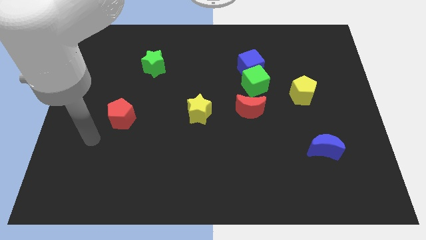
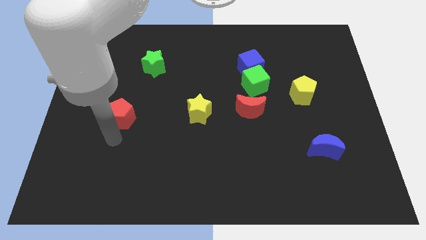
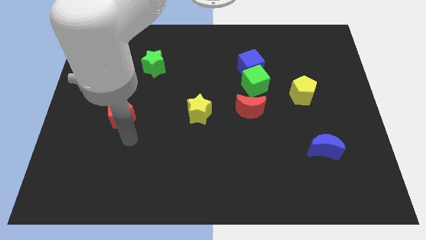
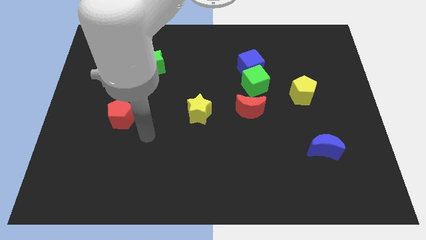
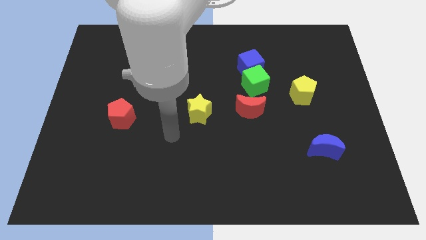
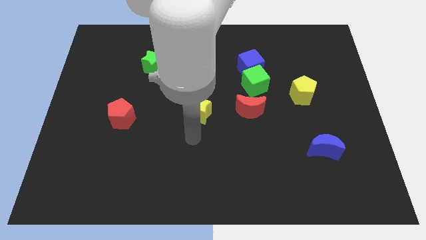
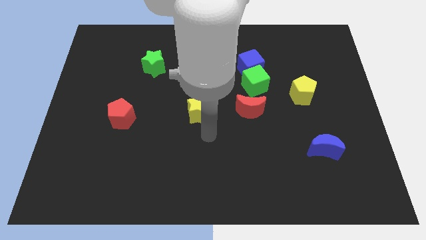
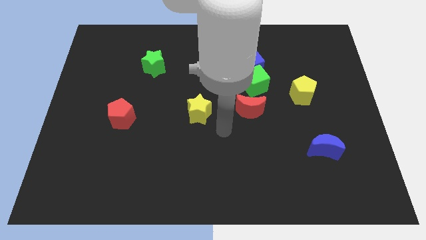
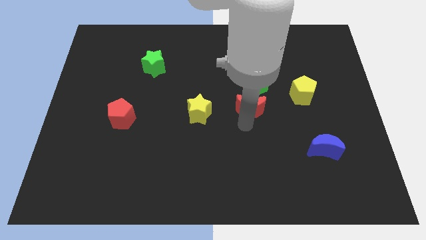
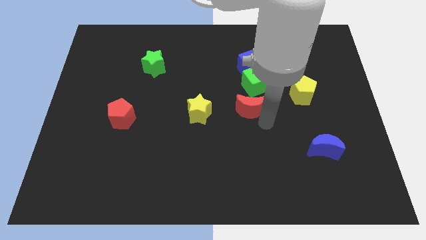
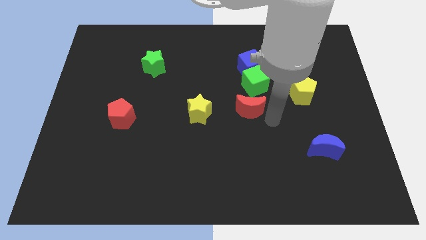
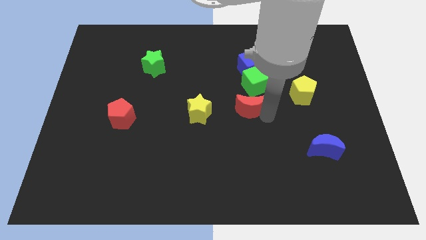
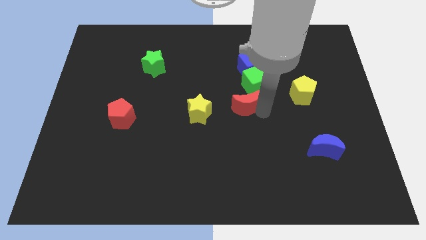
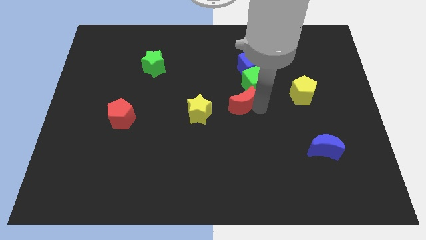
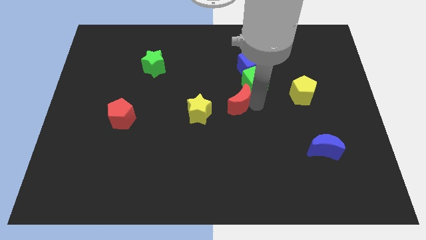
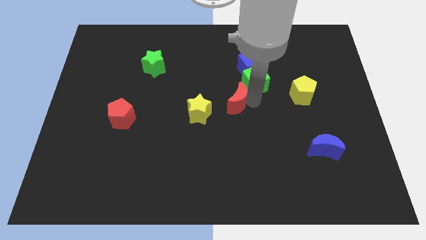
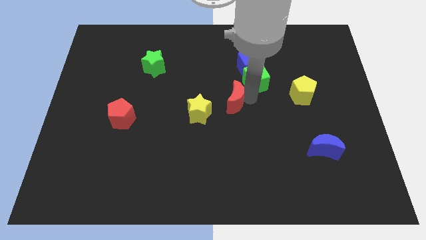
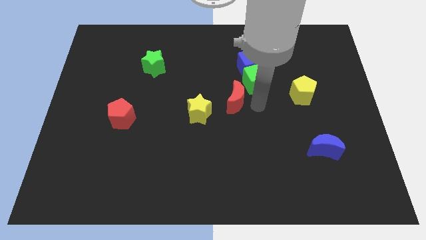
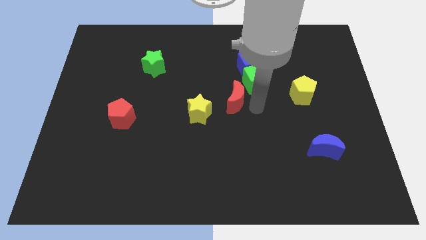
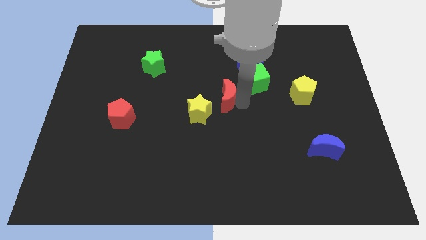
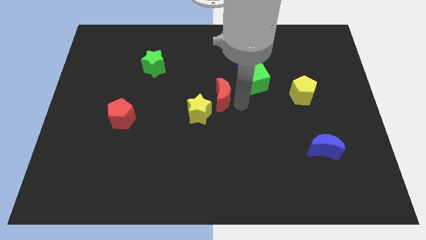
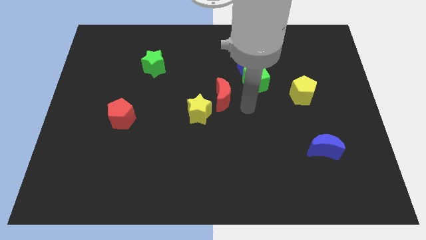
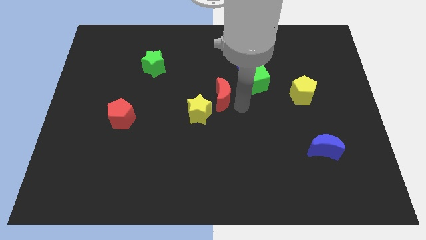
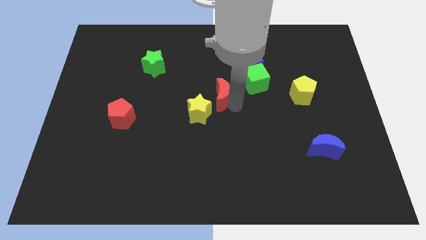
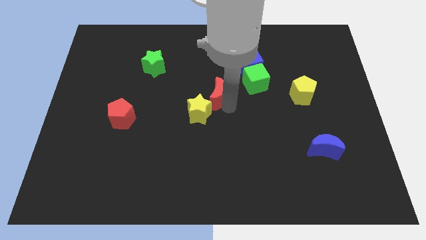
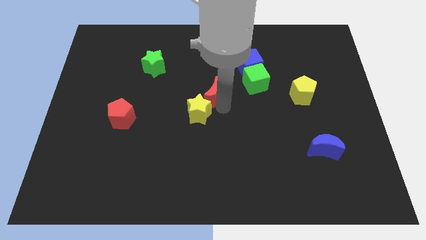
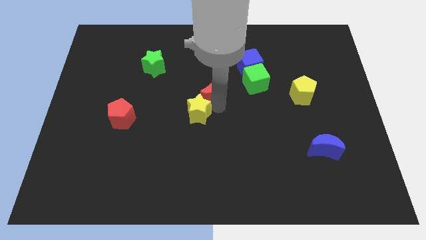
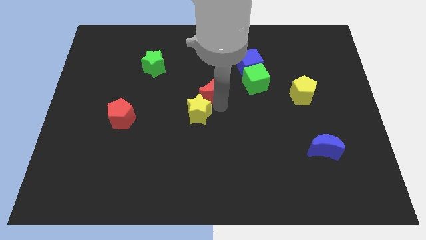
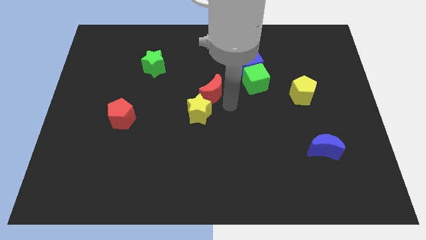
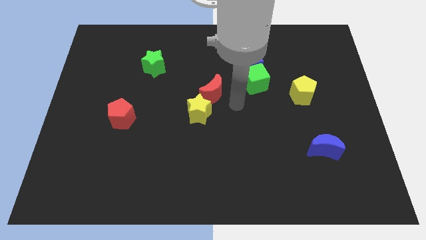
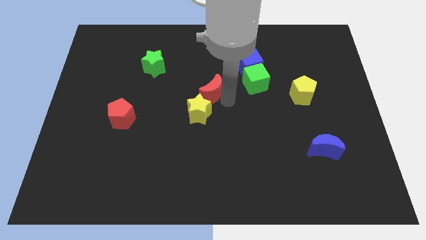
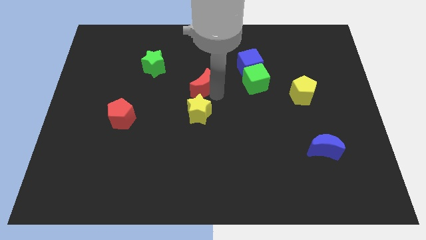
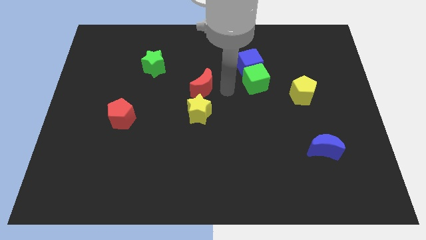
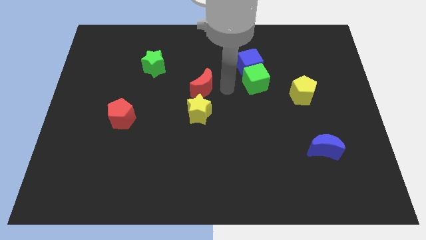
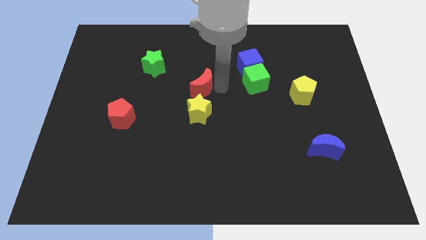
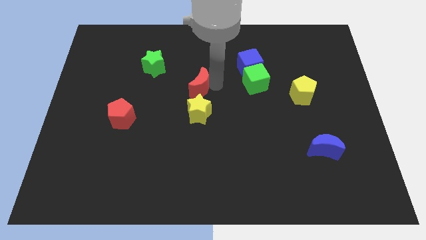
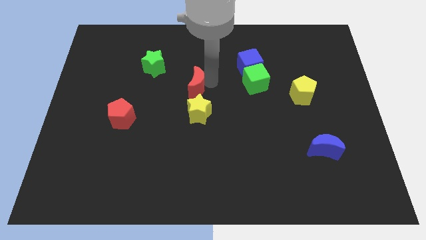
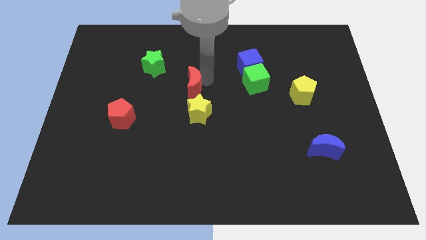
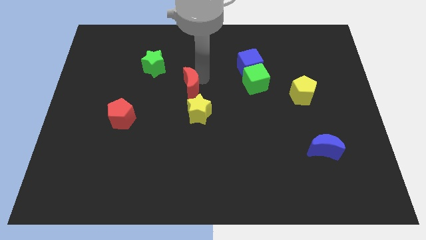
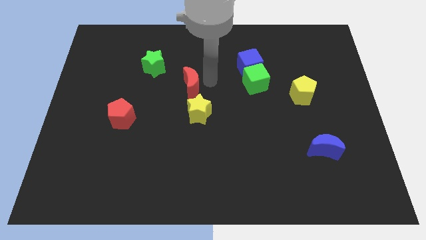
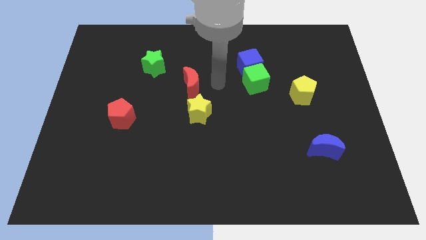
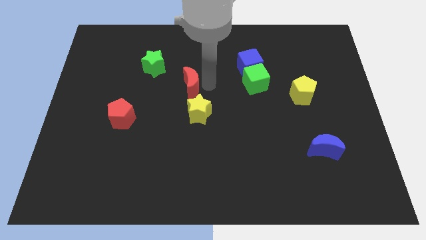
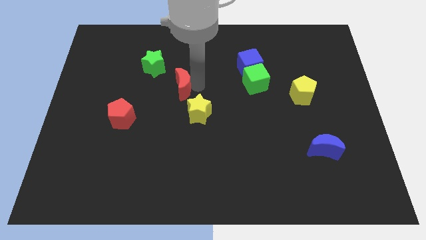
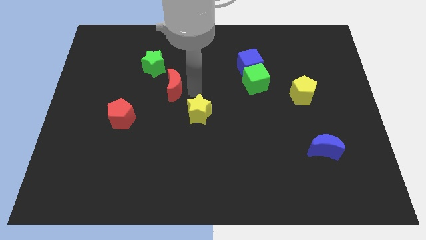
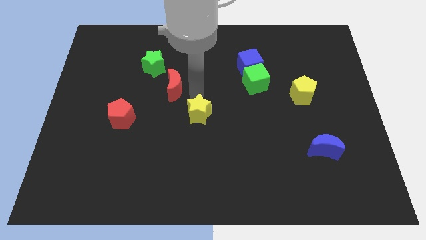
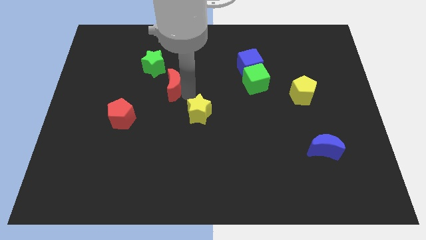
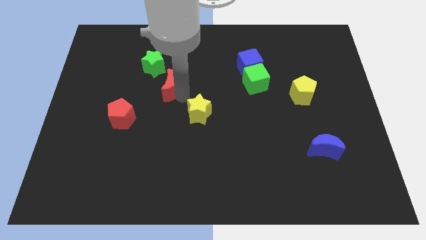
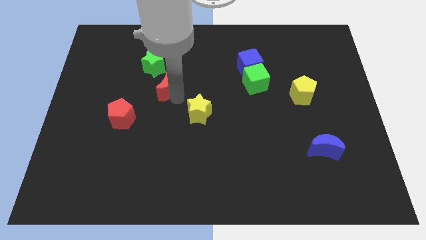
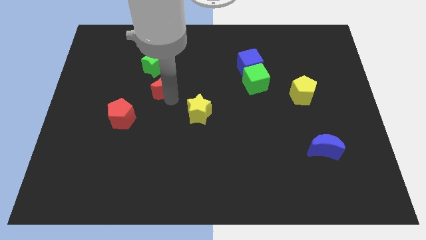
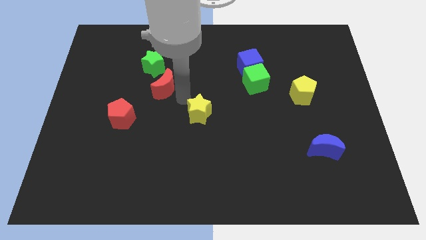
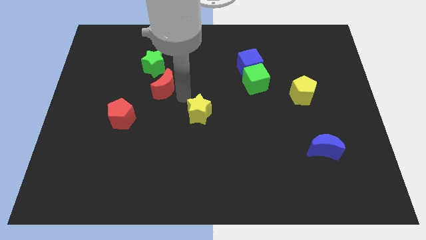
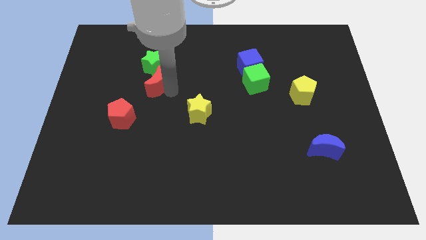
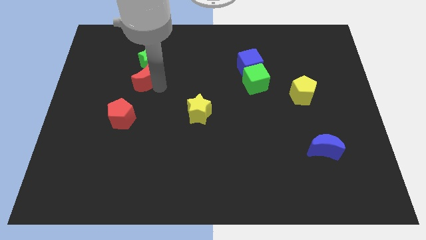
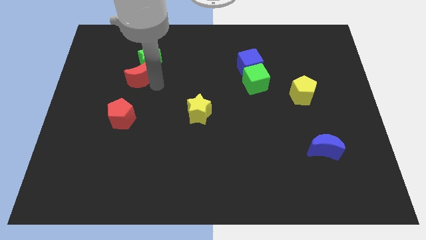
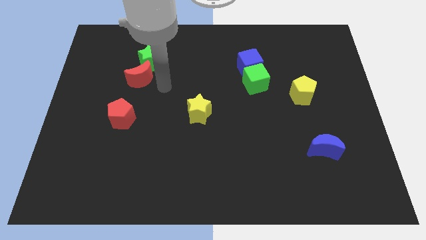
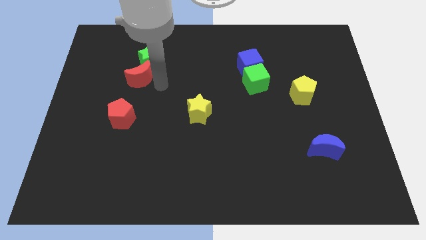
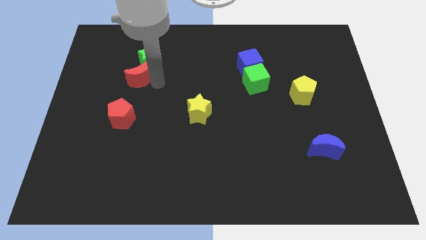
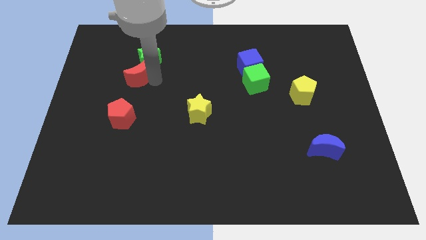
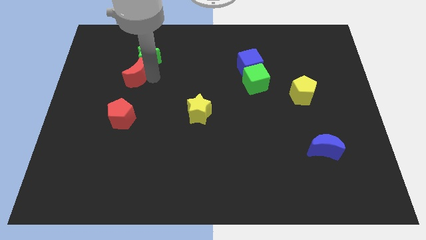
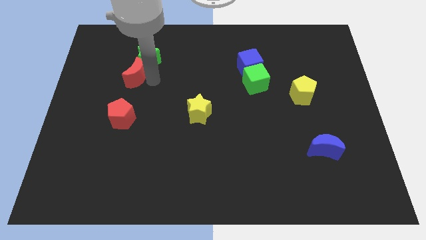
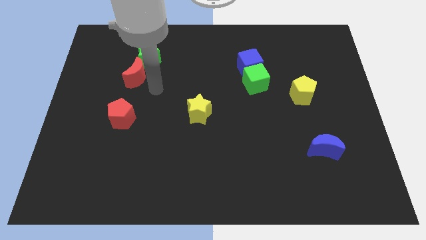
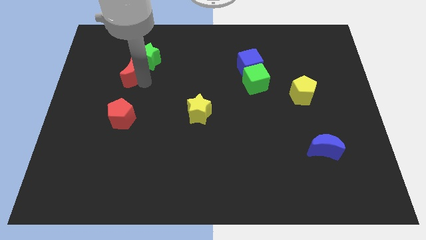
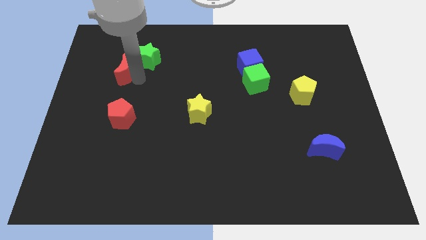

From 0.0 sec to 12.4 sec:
move the red moon left of the green star

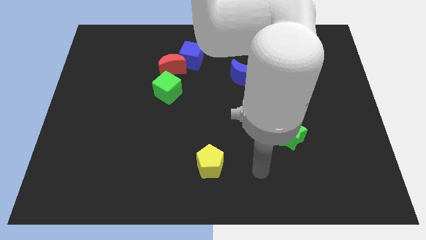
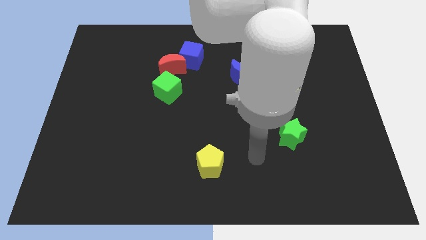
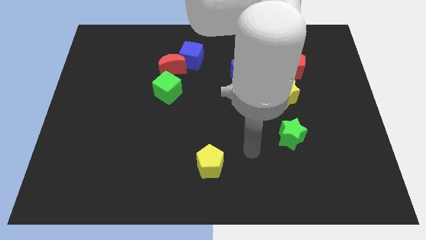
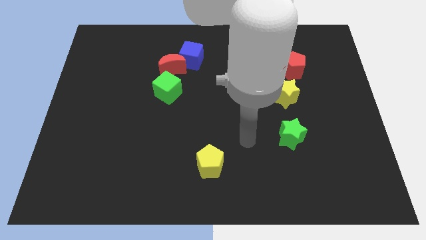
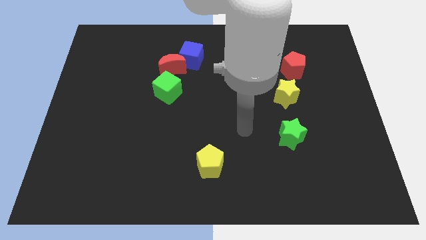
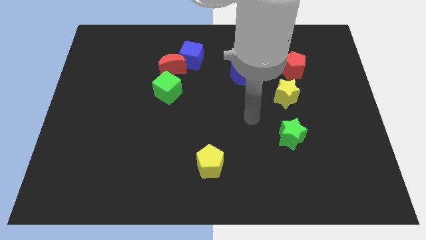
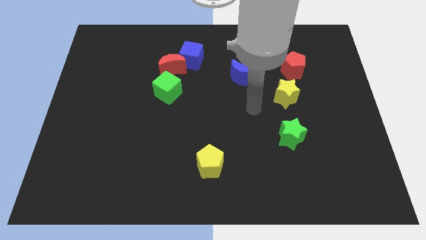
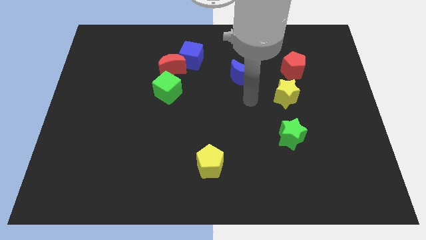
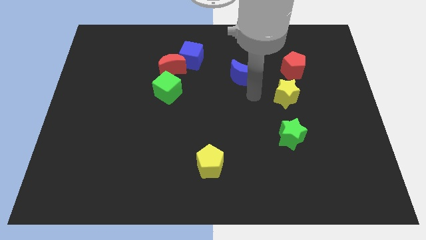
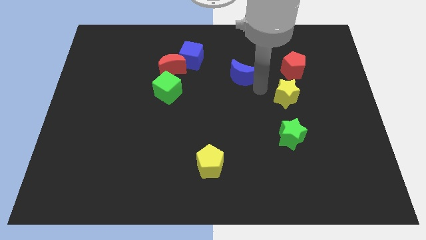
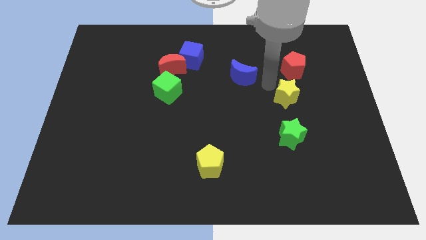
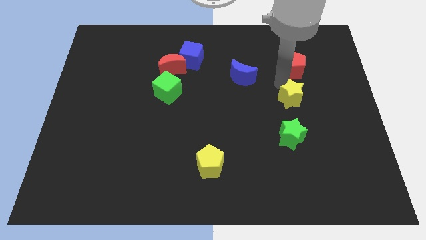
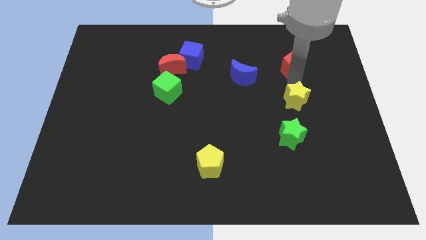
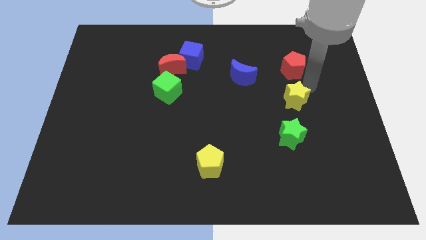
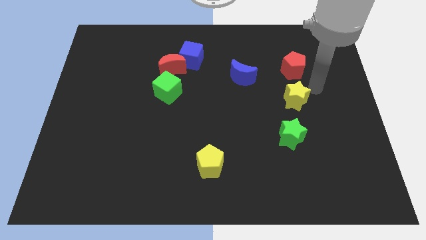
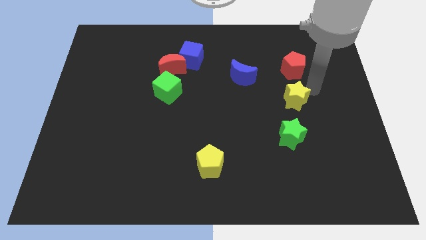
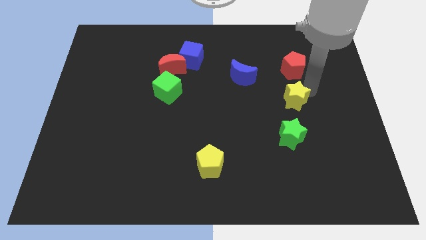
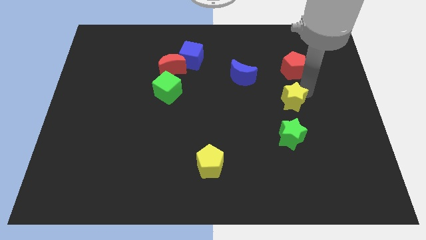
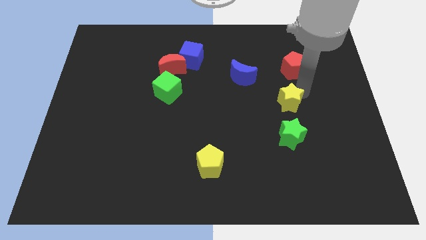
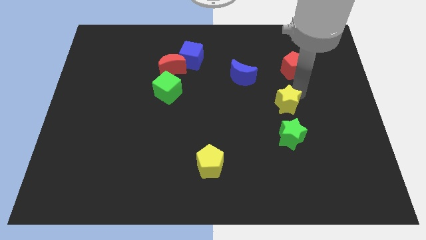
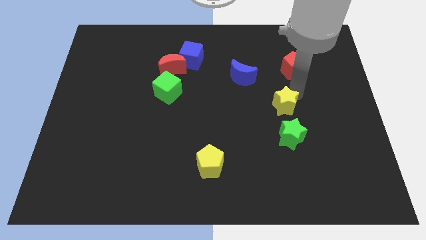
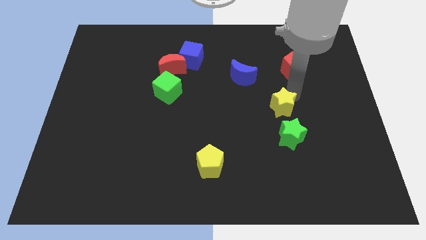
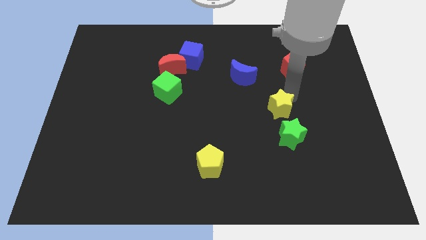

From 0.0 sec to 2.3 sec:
move the yellow star diagonally up and to the left of the green star
